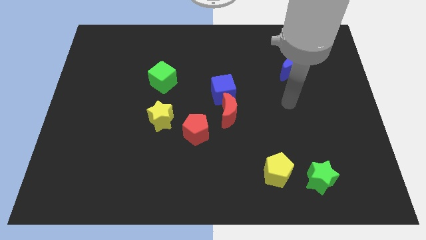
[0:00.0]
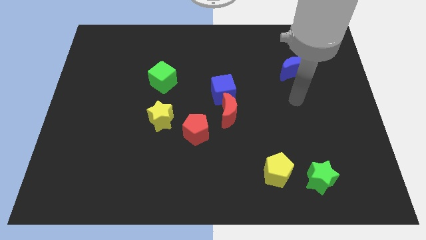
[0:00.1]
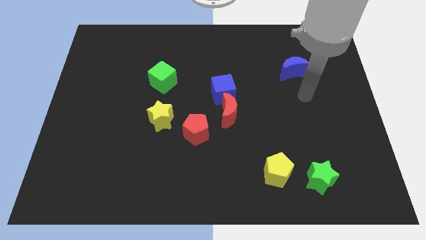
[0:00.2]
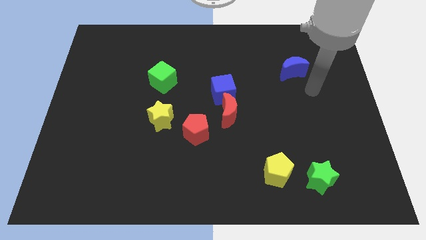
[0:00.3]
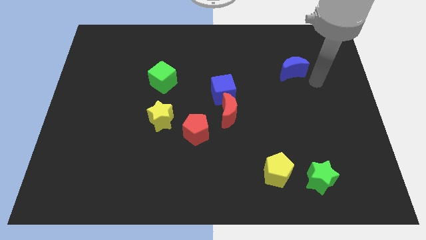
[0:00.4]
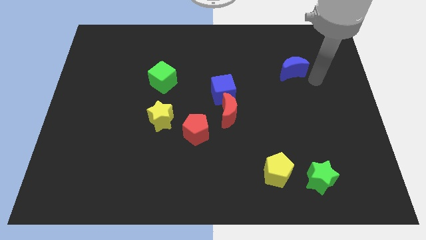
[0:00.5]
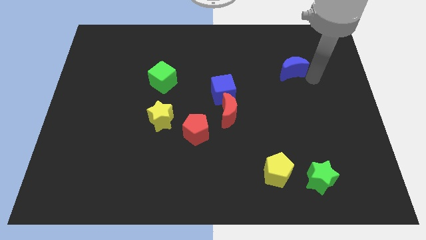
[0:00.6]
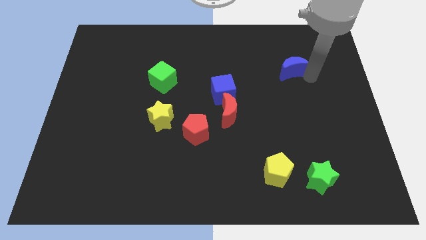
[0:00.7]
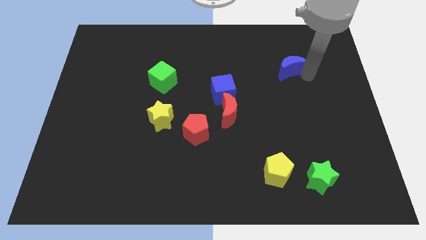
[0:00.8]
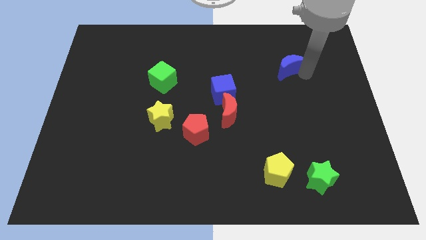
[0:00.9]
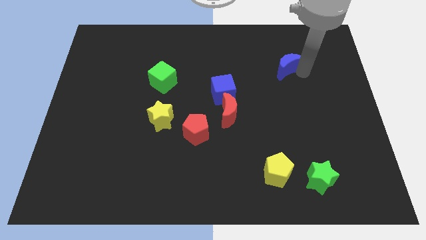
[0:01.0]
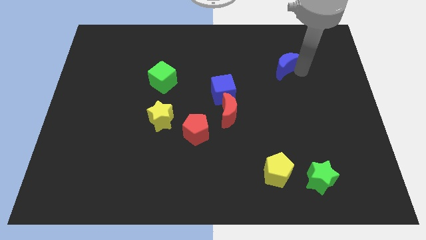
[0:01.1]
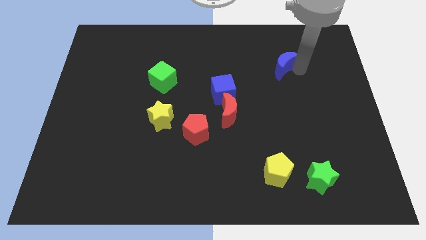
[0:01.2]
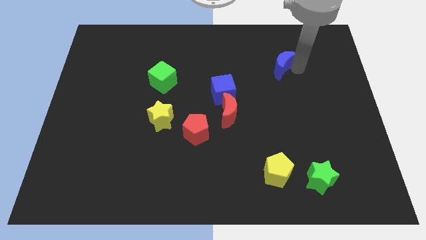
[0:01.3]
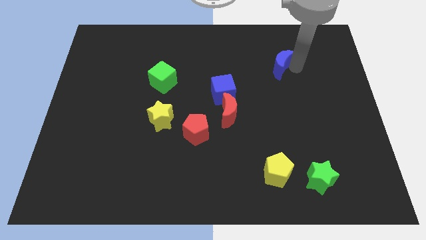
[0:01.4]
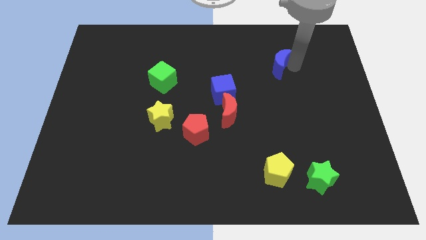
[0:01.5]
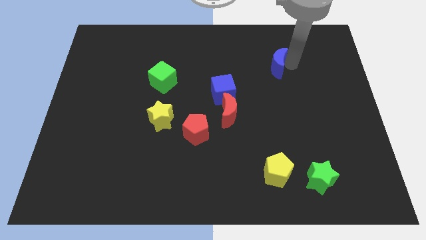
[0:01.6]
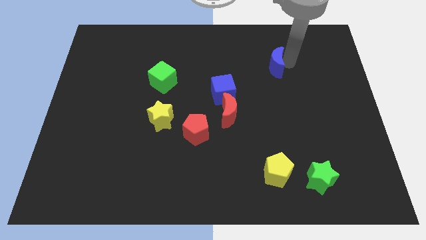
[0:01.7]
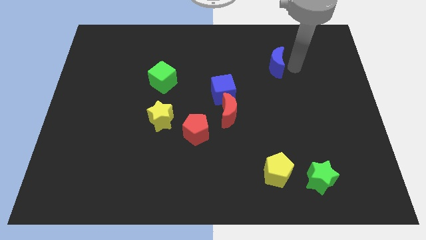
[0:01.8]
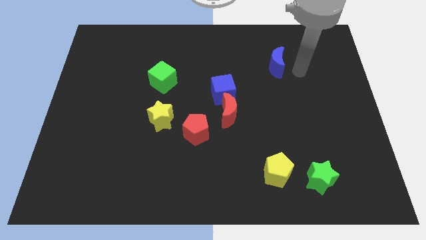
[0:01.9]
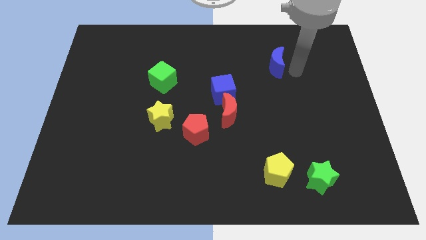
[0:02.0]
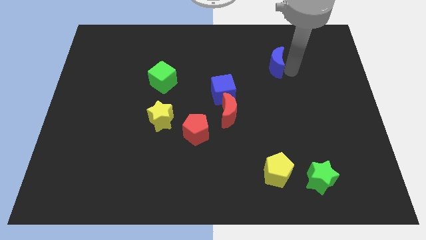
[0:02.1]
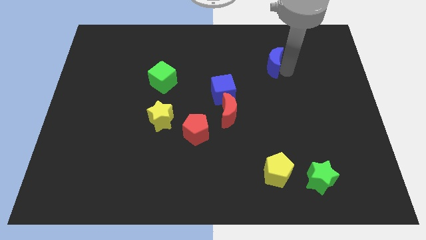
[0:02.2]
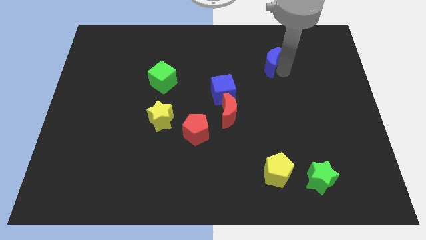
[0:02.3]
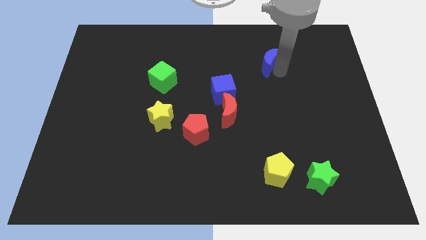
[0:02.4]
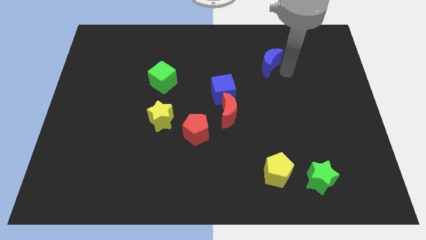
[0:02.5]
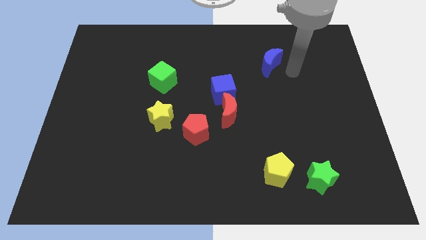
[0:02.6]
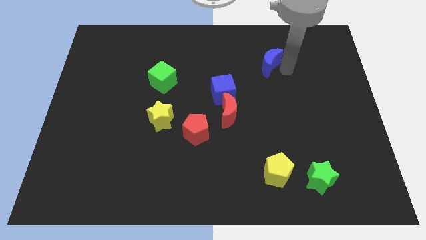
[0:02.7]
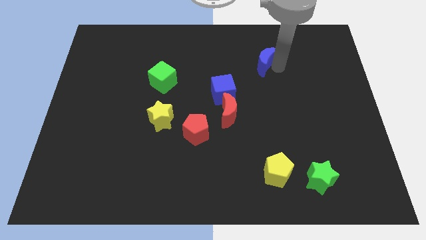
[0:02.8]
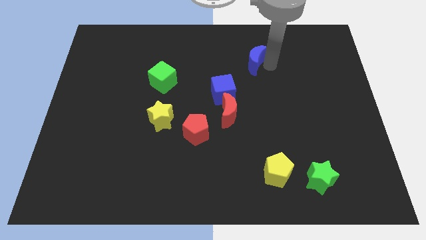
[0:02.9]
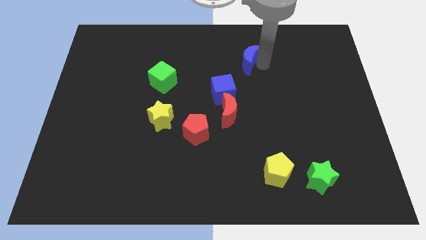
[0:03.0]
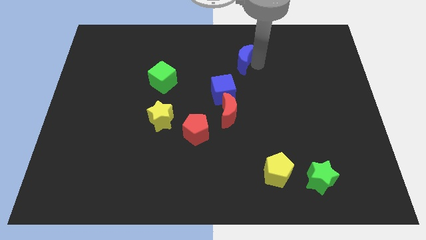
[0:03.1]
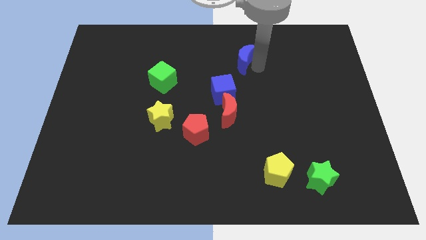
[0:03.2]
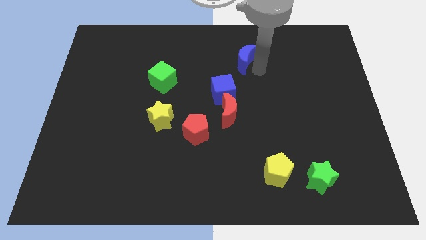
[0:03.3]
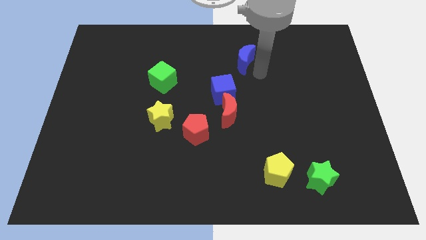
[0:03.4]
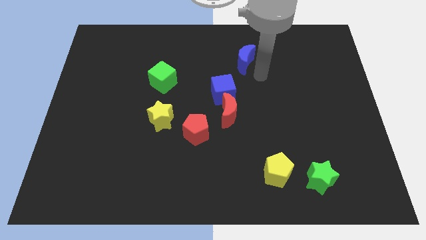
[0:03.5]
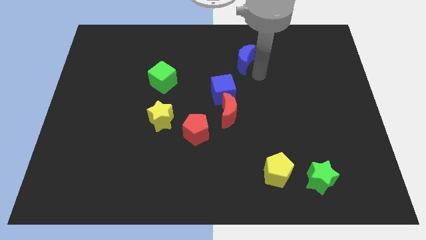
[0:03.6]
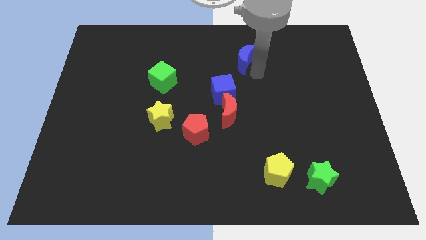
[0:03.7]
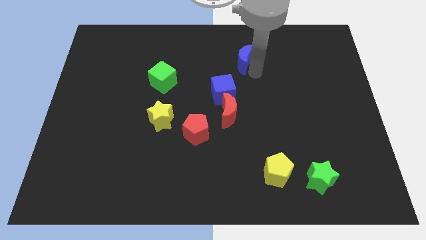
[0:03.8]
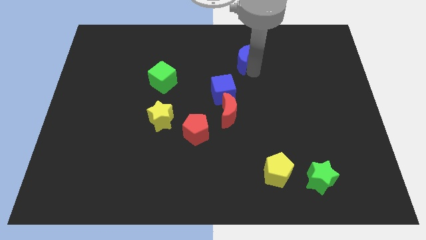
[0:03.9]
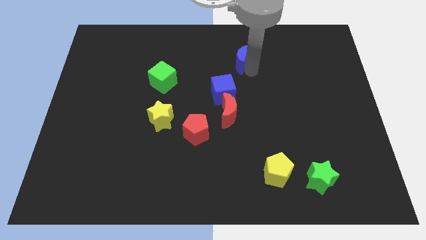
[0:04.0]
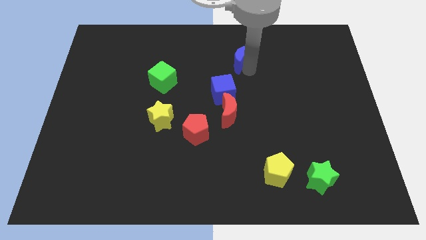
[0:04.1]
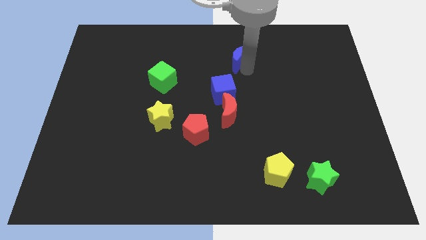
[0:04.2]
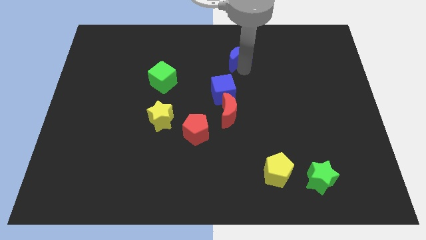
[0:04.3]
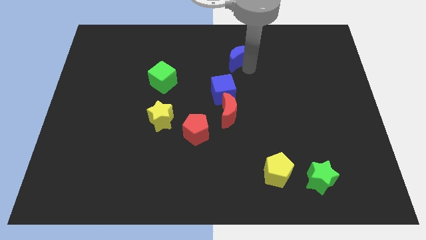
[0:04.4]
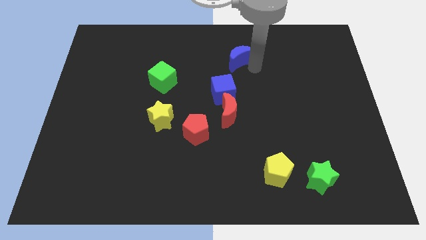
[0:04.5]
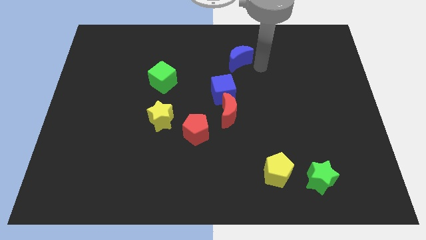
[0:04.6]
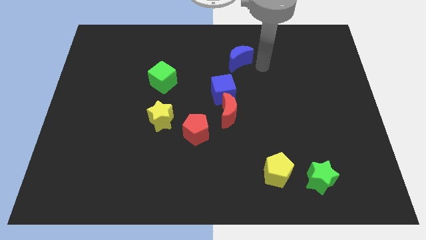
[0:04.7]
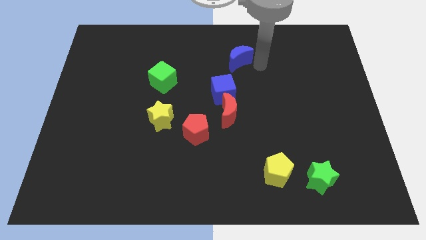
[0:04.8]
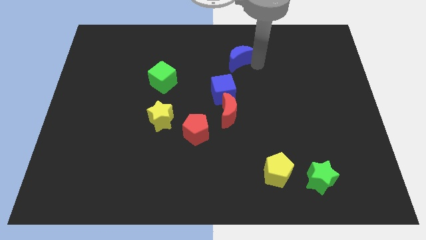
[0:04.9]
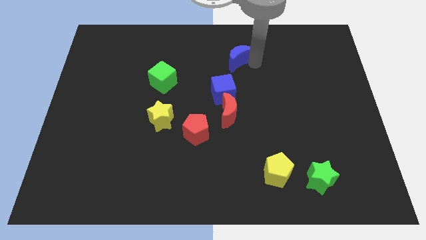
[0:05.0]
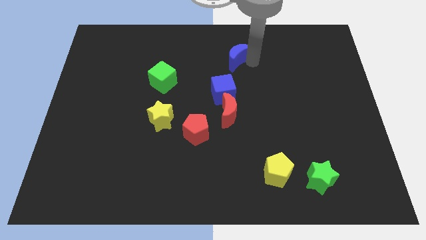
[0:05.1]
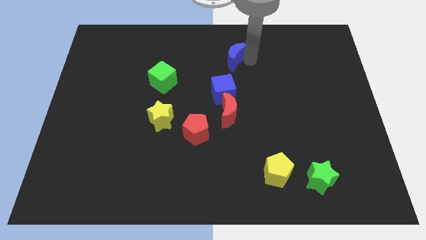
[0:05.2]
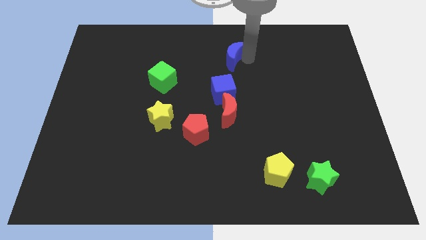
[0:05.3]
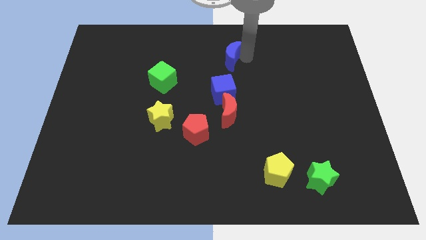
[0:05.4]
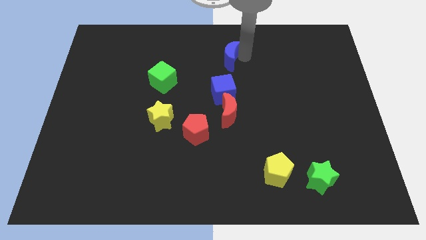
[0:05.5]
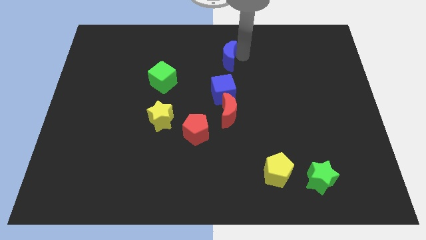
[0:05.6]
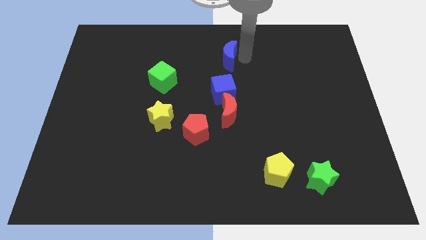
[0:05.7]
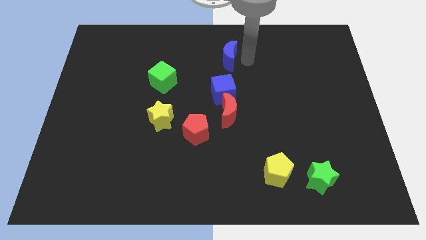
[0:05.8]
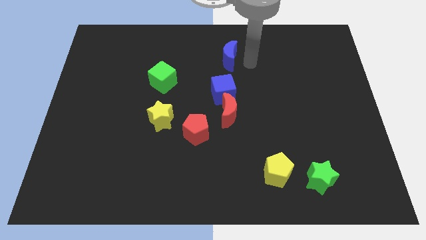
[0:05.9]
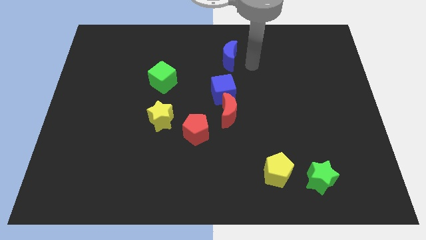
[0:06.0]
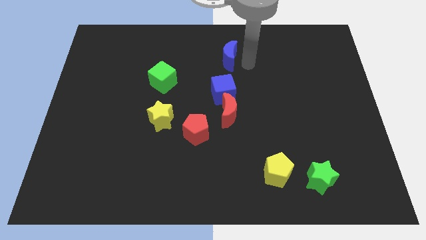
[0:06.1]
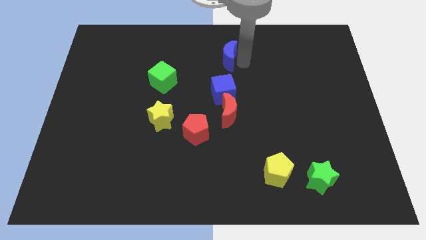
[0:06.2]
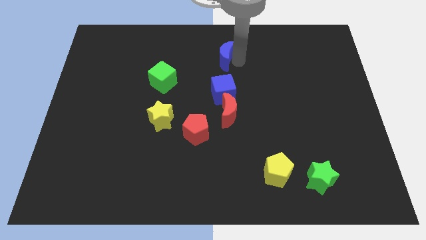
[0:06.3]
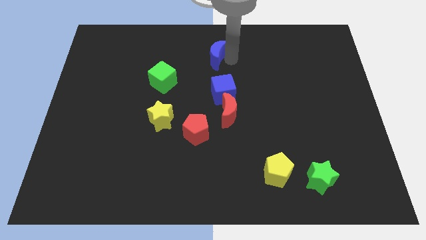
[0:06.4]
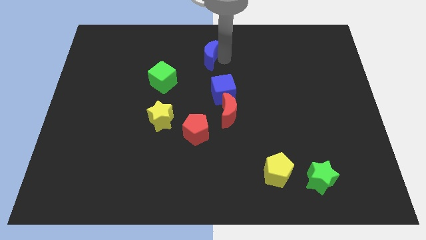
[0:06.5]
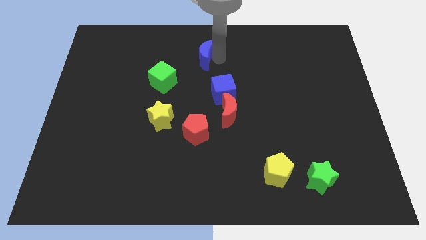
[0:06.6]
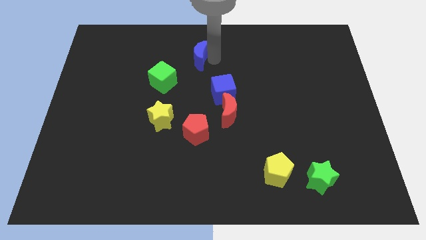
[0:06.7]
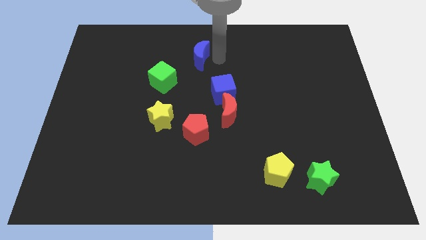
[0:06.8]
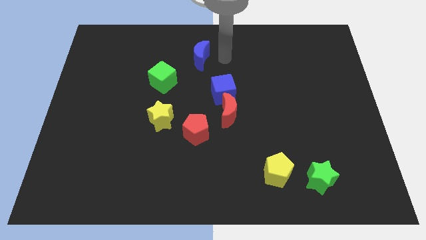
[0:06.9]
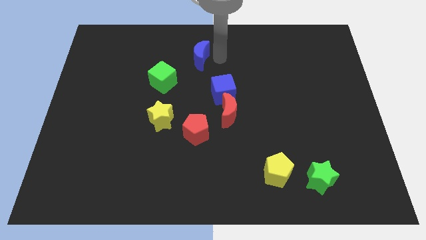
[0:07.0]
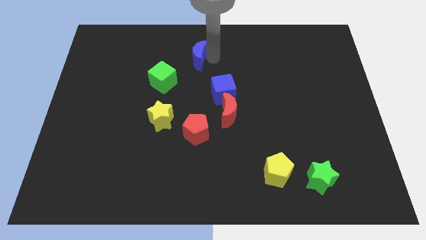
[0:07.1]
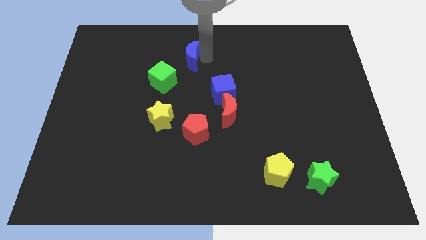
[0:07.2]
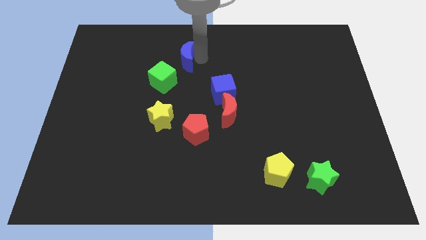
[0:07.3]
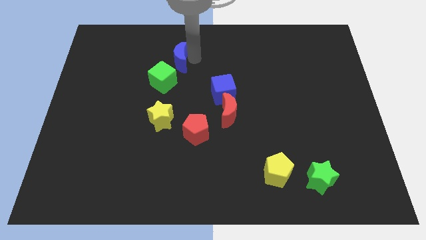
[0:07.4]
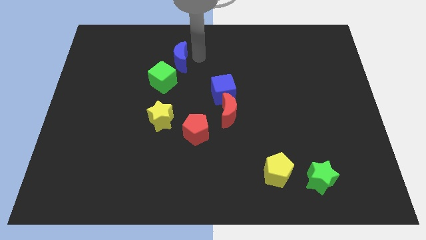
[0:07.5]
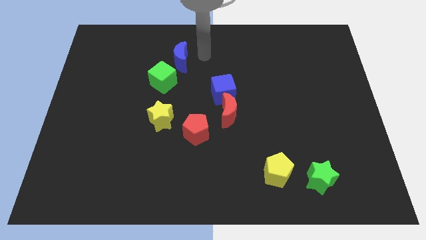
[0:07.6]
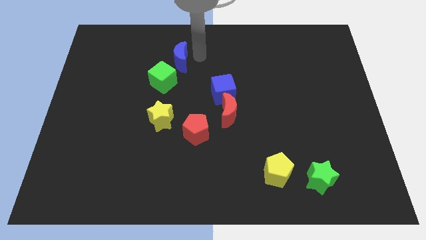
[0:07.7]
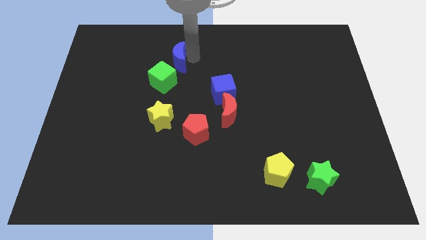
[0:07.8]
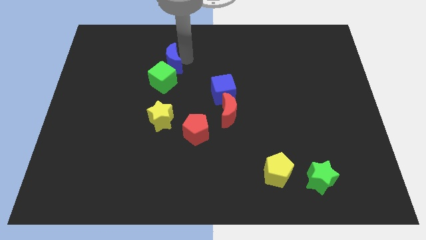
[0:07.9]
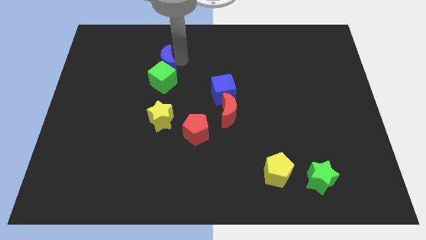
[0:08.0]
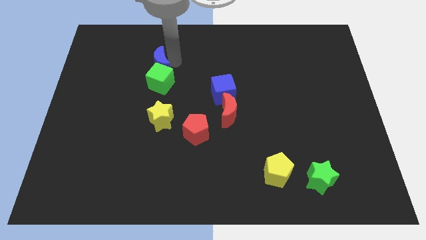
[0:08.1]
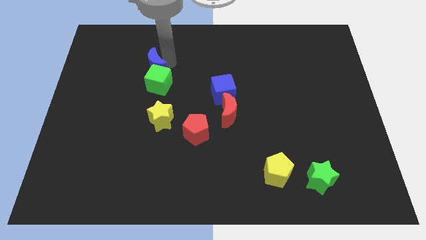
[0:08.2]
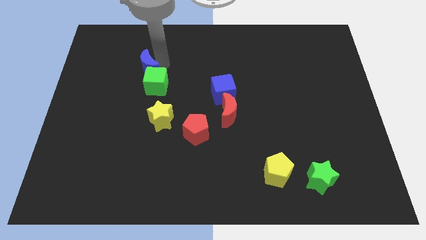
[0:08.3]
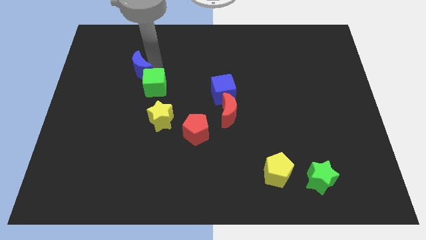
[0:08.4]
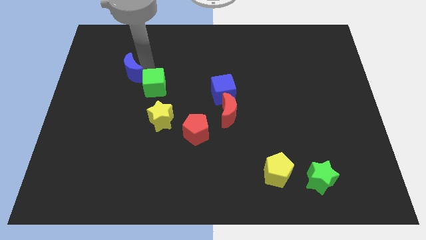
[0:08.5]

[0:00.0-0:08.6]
push the blue moon to the left side of the green cube
